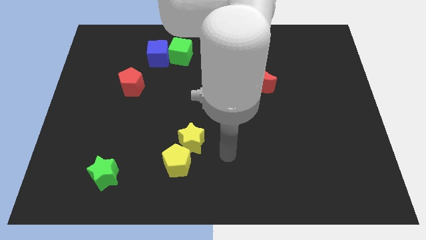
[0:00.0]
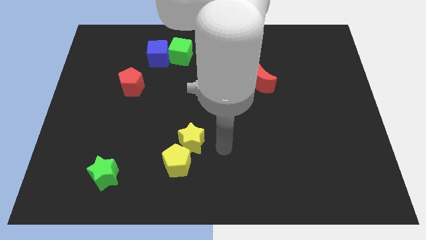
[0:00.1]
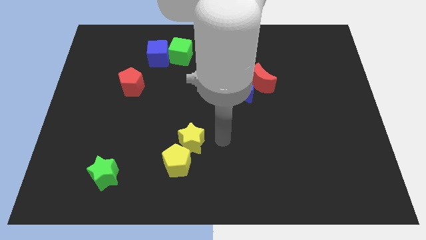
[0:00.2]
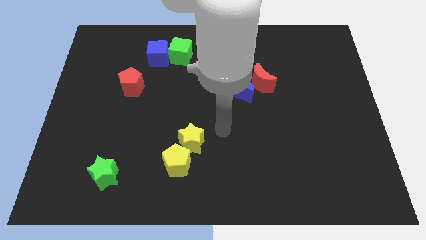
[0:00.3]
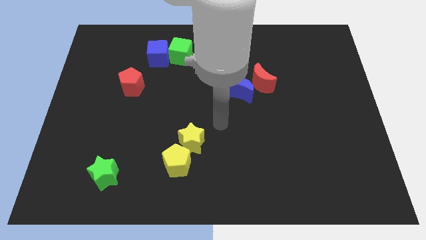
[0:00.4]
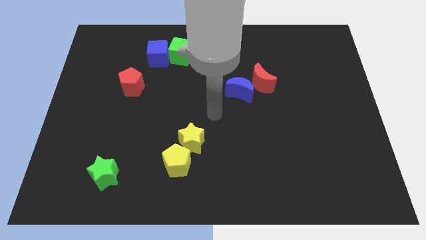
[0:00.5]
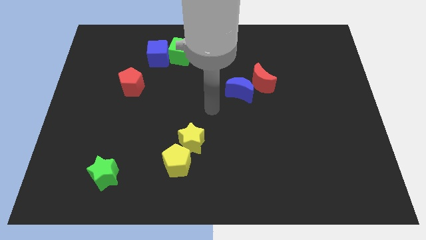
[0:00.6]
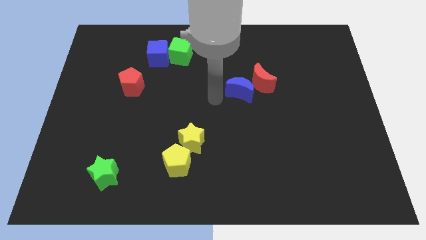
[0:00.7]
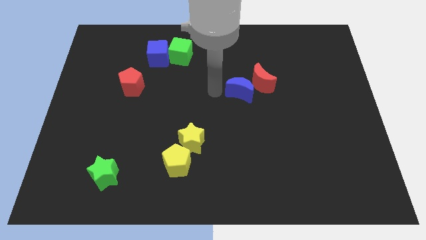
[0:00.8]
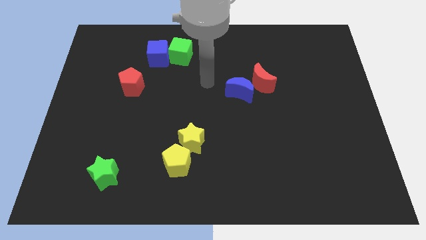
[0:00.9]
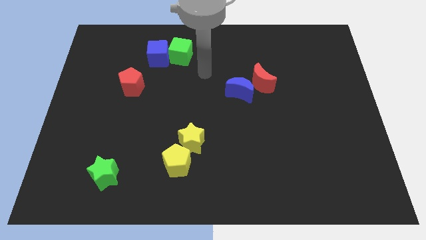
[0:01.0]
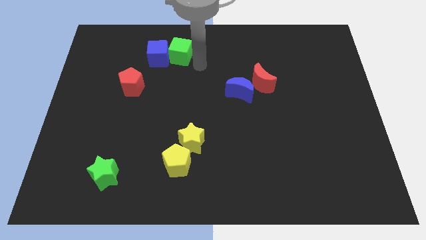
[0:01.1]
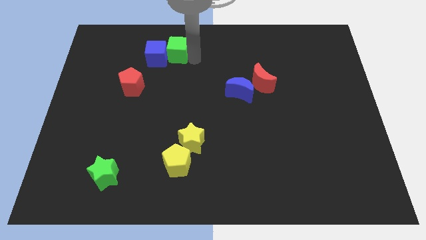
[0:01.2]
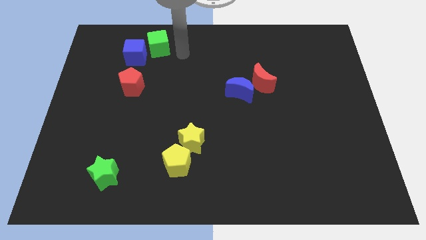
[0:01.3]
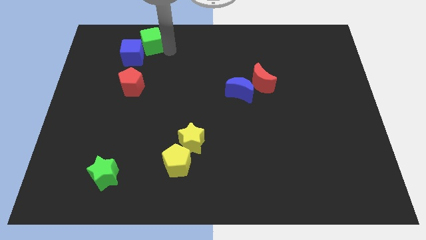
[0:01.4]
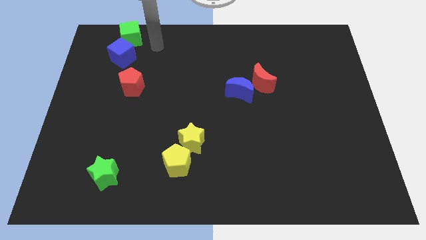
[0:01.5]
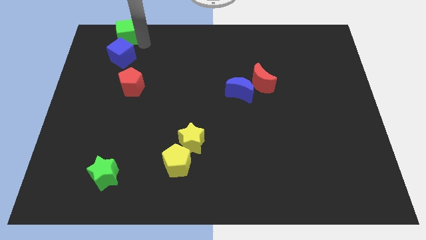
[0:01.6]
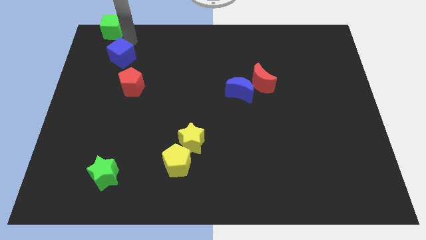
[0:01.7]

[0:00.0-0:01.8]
separate the blue cube from the green cube

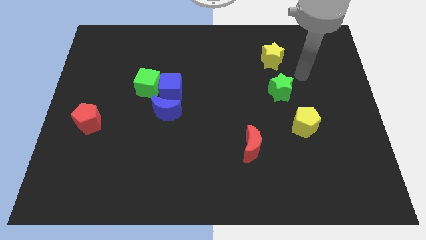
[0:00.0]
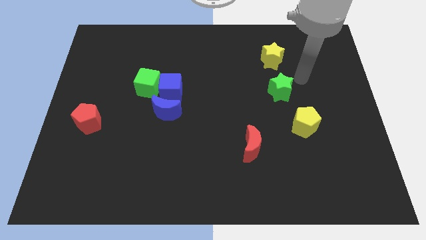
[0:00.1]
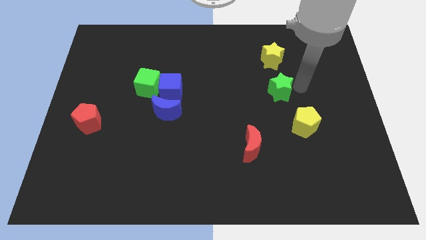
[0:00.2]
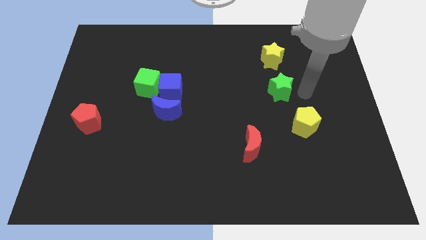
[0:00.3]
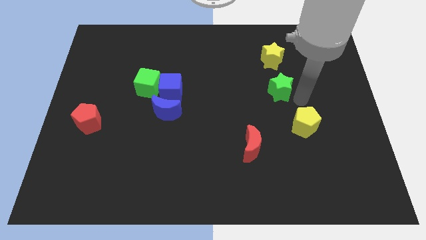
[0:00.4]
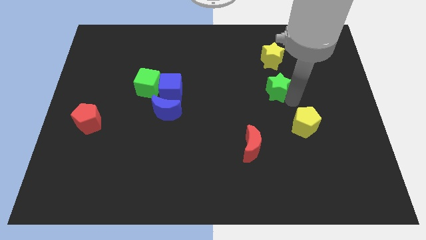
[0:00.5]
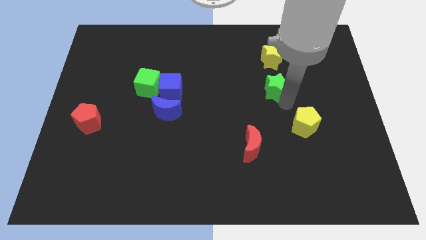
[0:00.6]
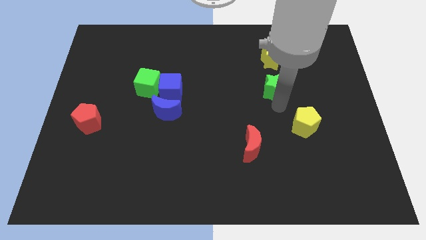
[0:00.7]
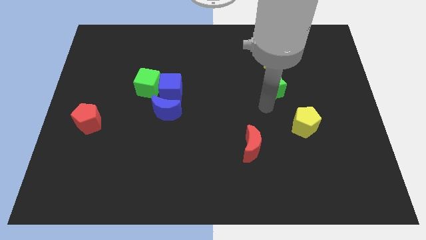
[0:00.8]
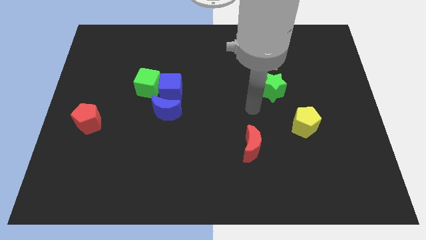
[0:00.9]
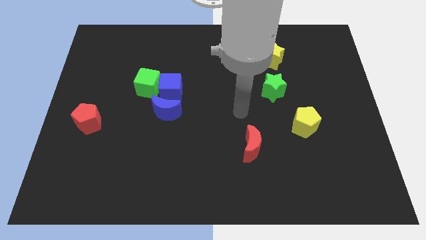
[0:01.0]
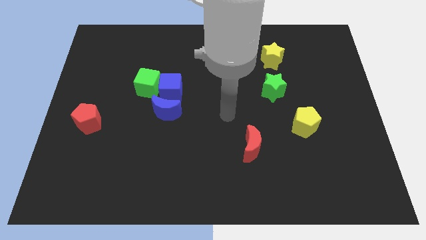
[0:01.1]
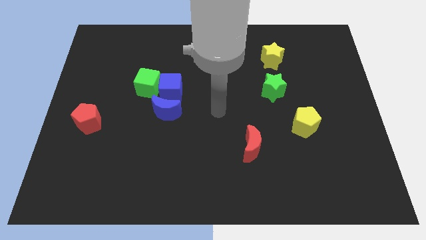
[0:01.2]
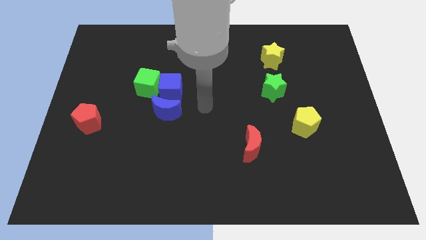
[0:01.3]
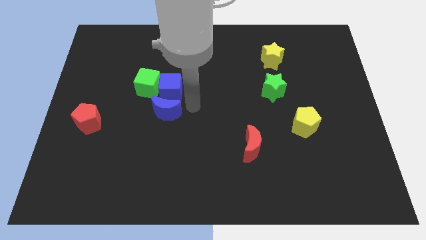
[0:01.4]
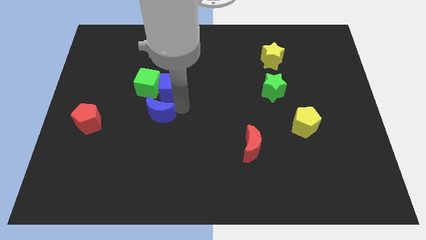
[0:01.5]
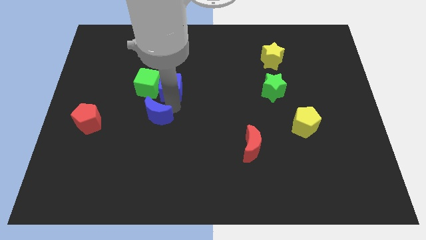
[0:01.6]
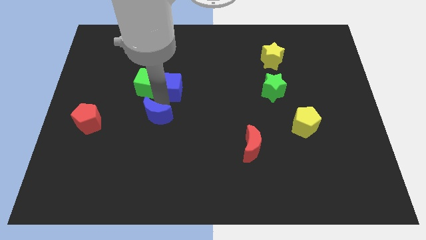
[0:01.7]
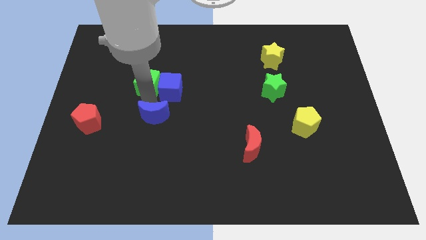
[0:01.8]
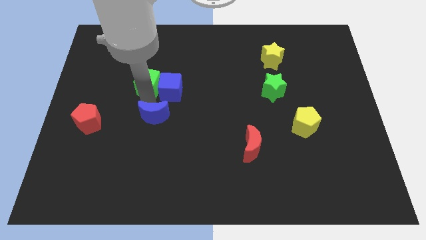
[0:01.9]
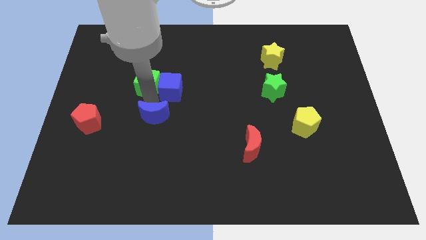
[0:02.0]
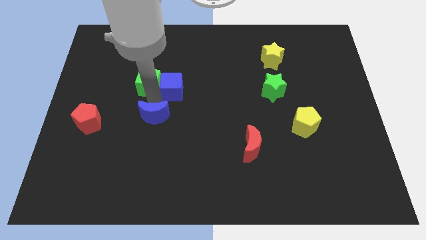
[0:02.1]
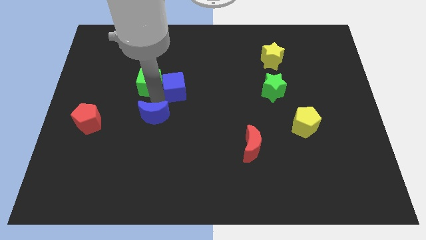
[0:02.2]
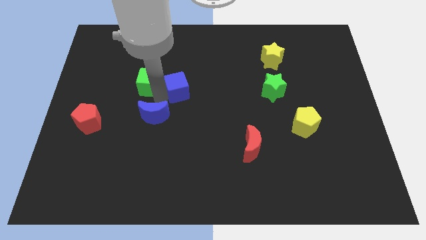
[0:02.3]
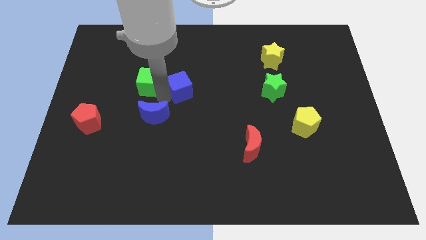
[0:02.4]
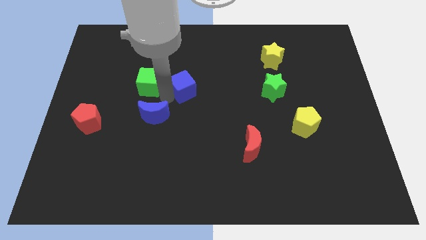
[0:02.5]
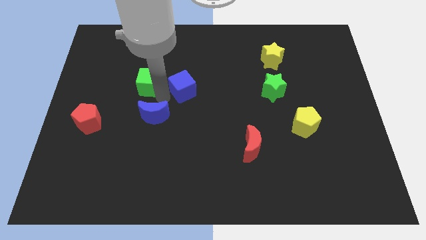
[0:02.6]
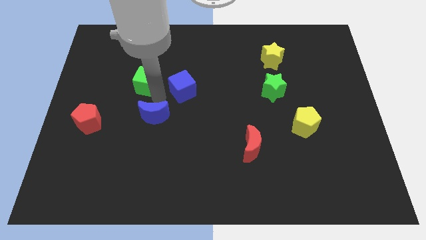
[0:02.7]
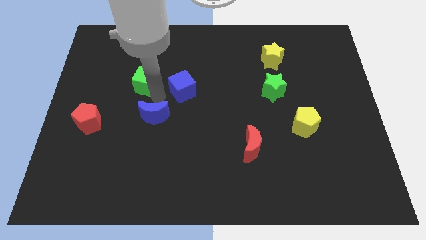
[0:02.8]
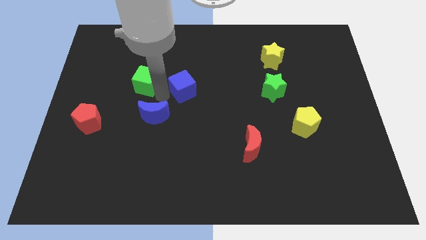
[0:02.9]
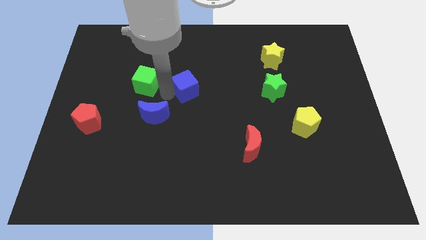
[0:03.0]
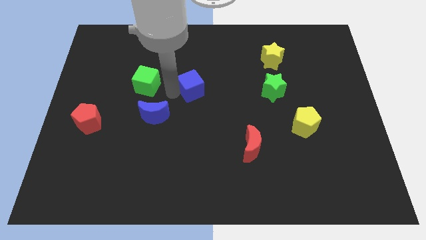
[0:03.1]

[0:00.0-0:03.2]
separate the blue cube from the green cube and blue moon

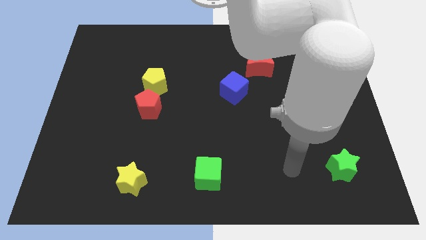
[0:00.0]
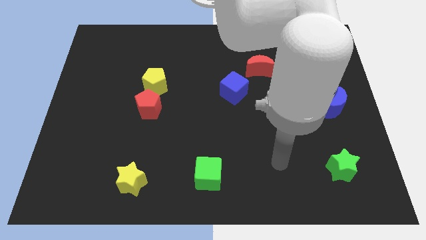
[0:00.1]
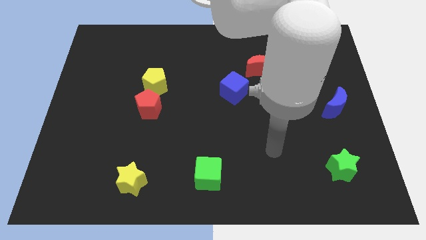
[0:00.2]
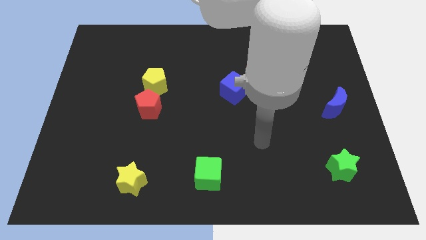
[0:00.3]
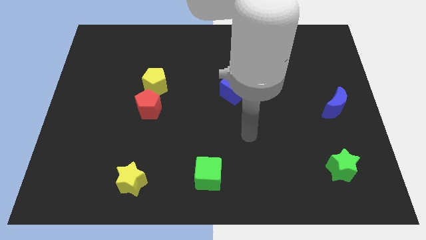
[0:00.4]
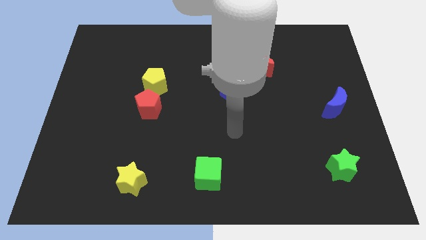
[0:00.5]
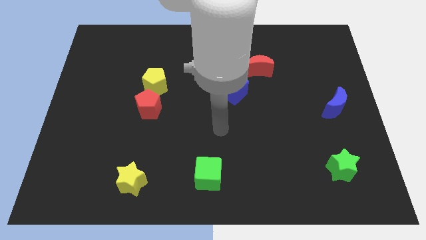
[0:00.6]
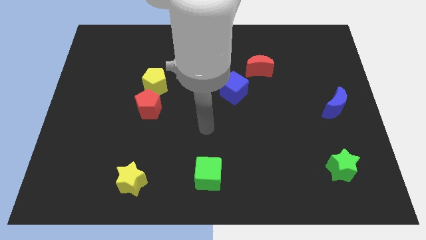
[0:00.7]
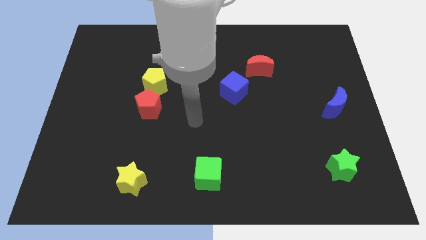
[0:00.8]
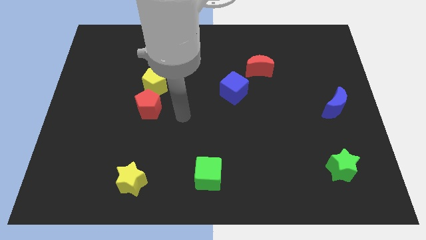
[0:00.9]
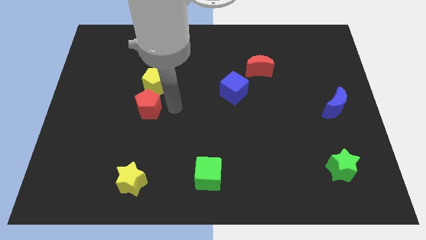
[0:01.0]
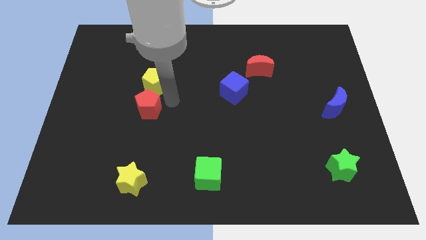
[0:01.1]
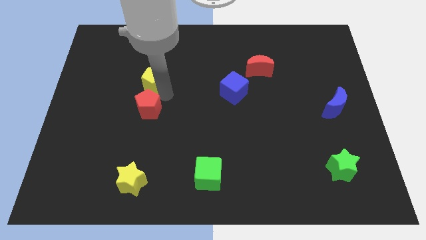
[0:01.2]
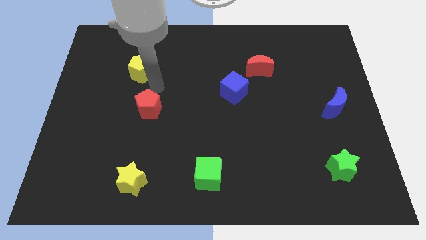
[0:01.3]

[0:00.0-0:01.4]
move the red pentagon away from the yellow pentagon

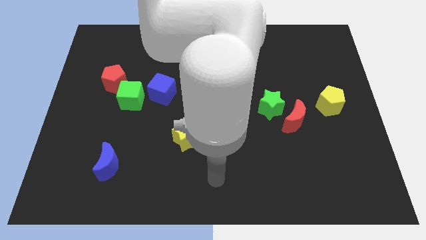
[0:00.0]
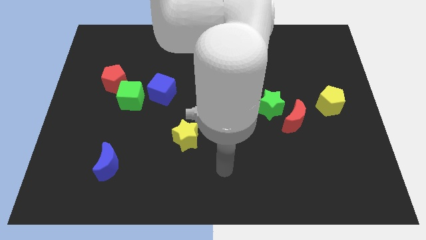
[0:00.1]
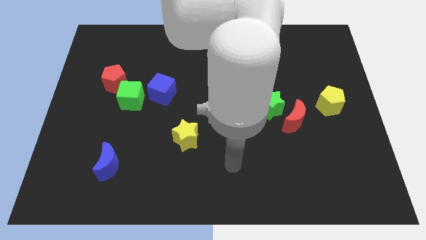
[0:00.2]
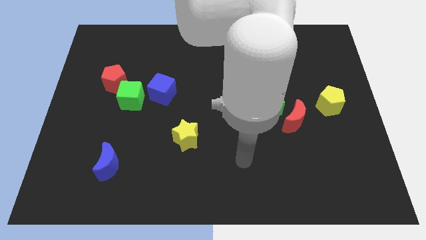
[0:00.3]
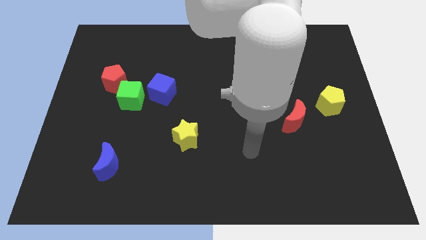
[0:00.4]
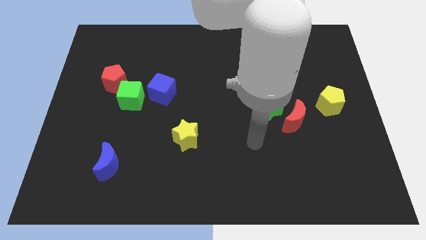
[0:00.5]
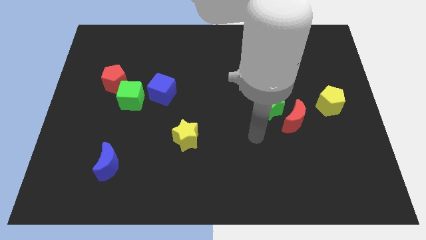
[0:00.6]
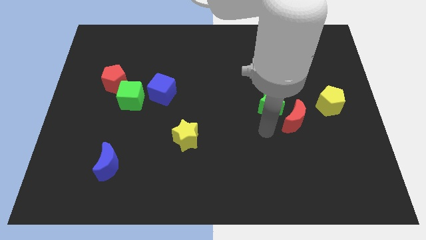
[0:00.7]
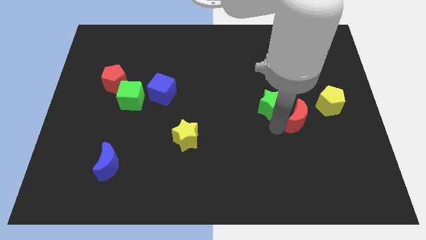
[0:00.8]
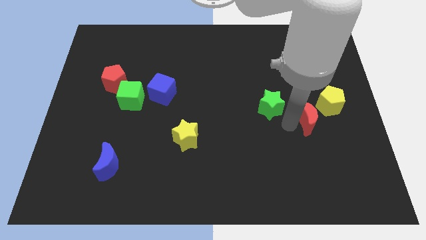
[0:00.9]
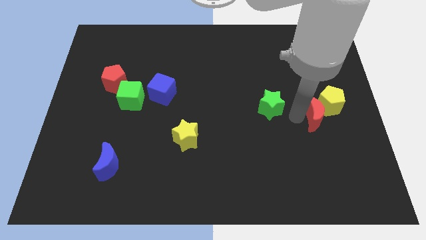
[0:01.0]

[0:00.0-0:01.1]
separate the green star from the red moon

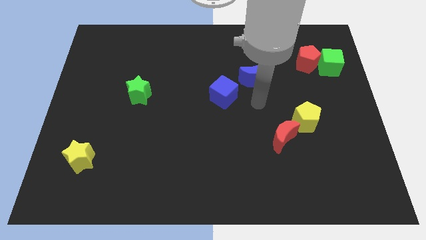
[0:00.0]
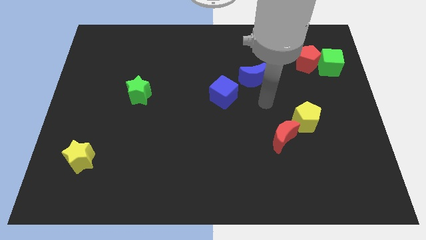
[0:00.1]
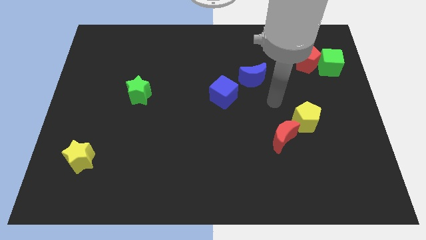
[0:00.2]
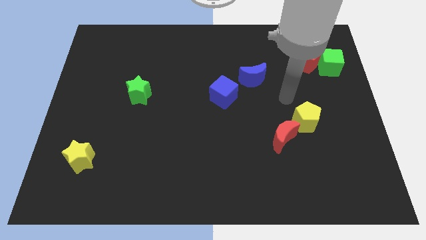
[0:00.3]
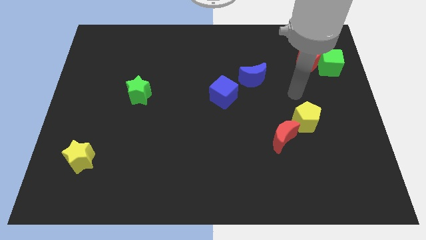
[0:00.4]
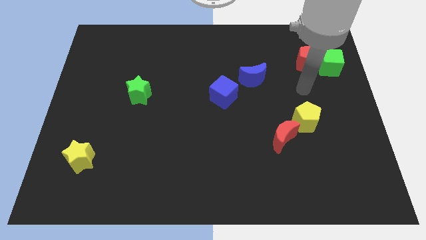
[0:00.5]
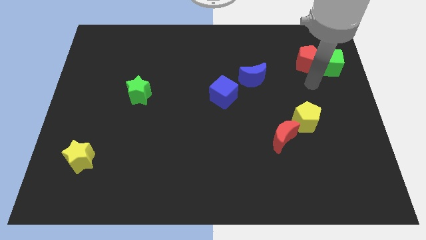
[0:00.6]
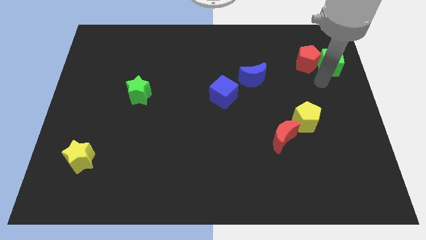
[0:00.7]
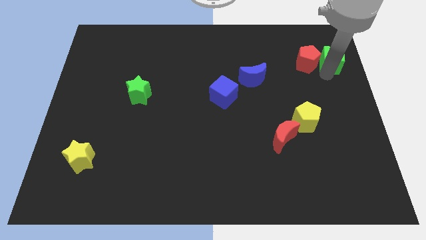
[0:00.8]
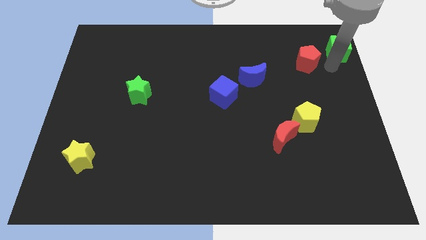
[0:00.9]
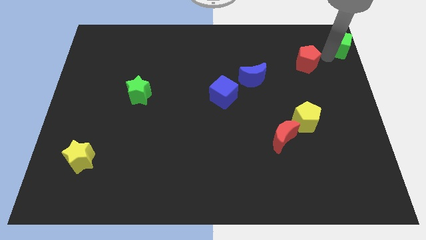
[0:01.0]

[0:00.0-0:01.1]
separate the red pentagon from the green cube

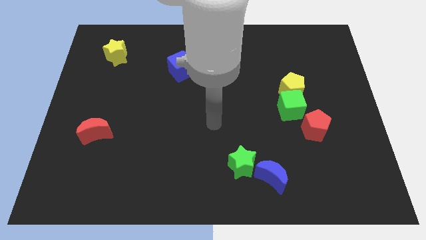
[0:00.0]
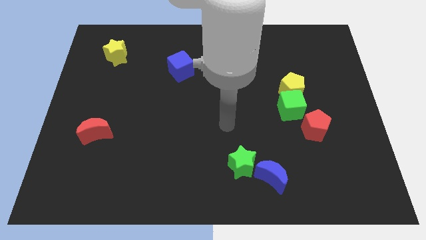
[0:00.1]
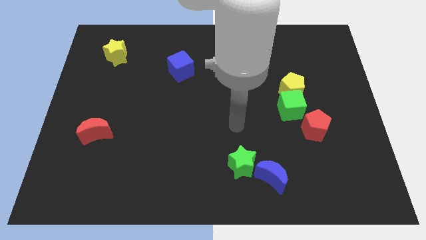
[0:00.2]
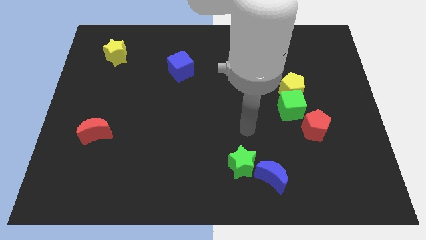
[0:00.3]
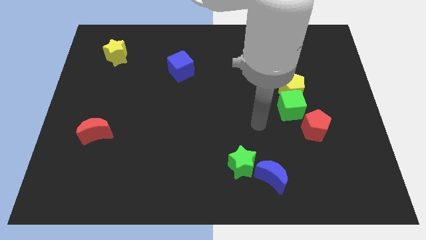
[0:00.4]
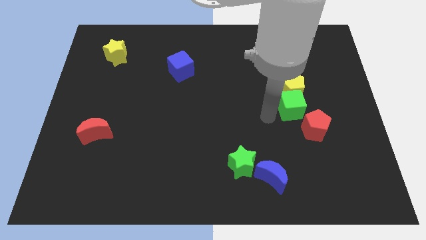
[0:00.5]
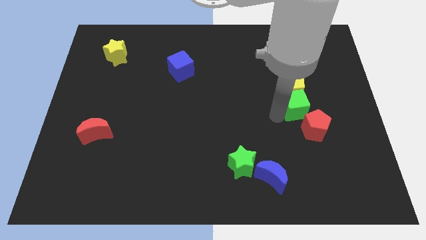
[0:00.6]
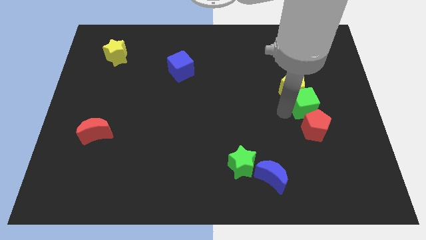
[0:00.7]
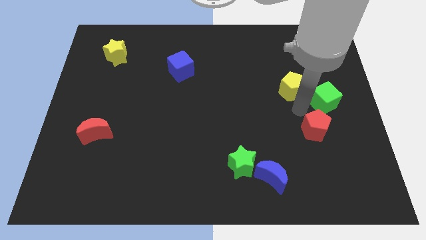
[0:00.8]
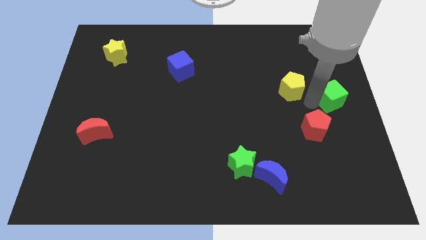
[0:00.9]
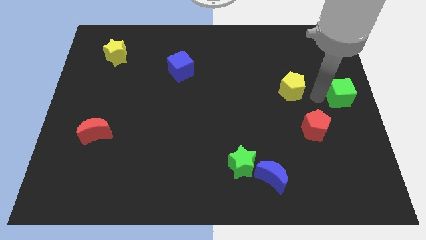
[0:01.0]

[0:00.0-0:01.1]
move the yellow pentagon away from the green cube
